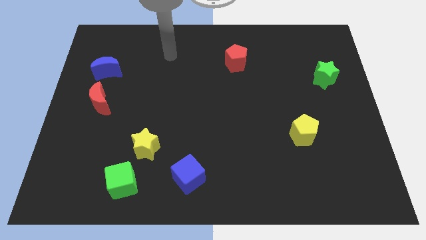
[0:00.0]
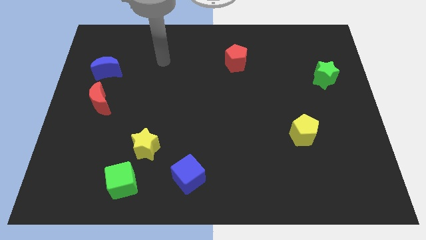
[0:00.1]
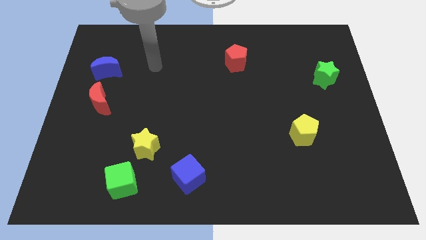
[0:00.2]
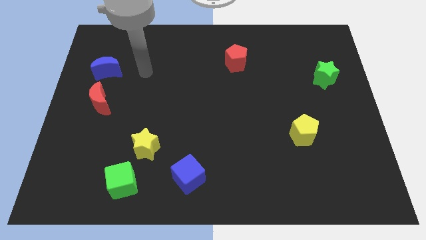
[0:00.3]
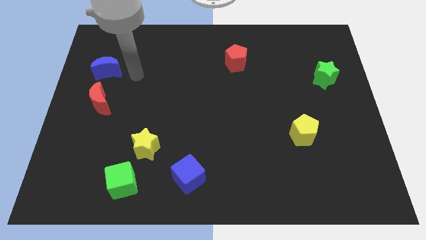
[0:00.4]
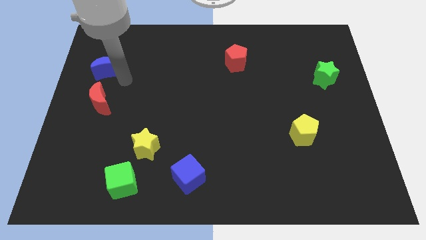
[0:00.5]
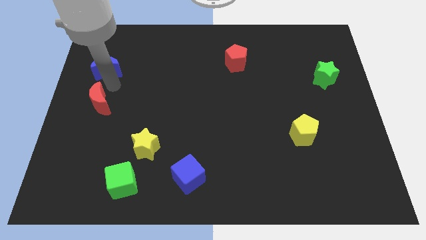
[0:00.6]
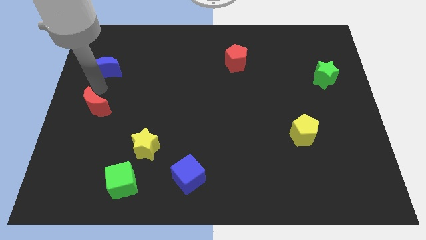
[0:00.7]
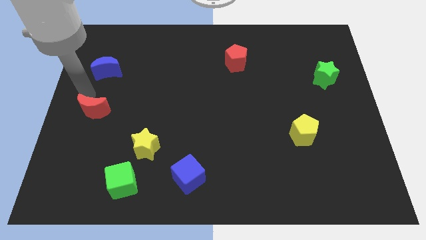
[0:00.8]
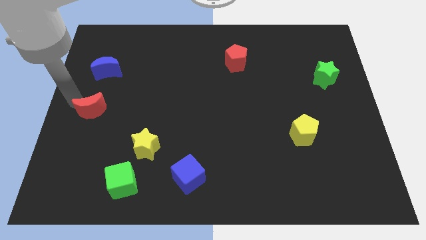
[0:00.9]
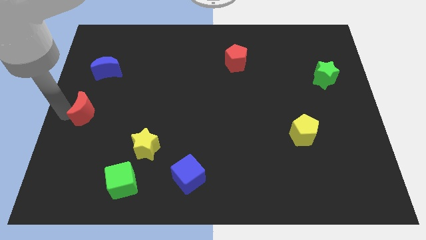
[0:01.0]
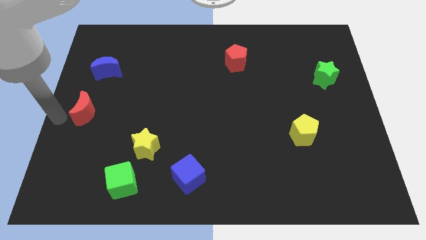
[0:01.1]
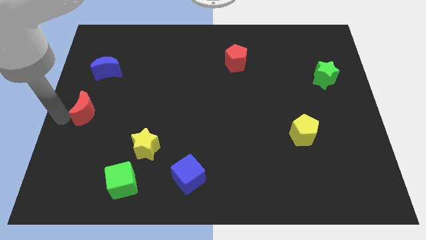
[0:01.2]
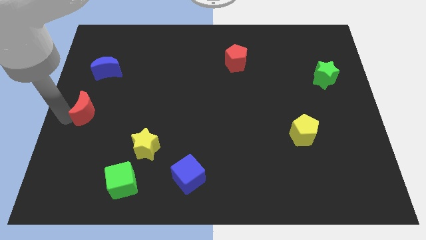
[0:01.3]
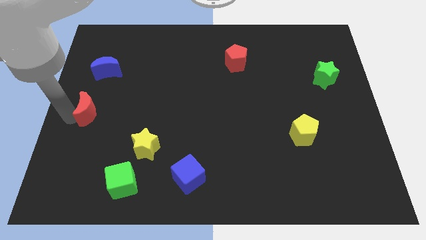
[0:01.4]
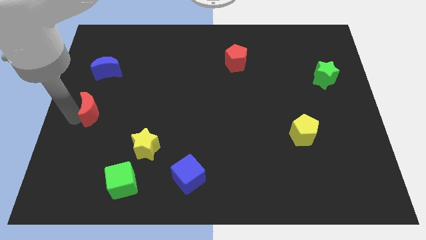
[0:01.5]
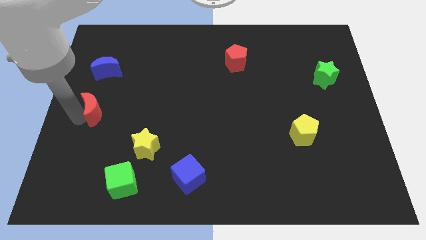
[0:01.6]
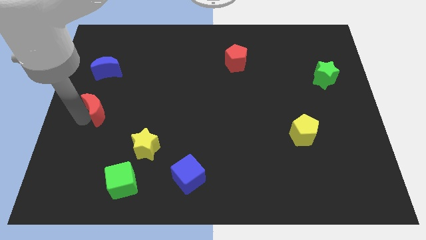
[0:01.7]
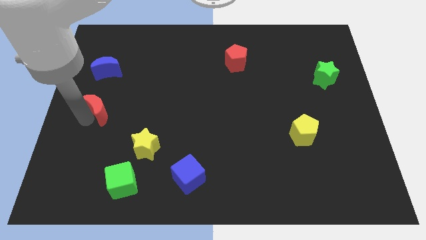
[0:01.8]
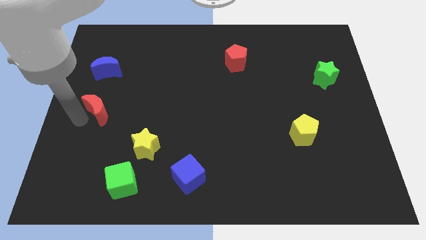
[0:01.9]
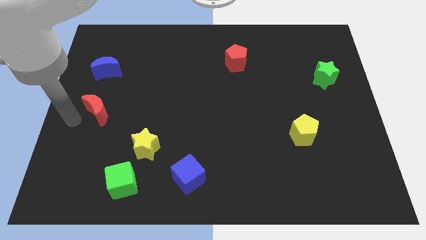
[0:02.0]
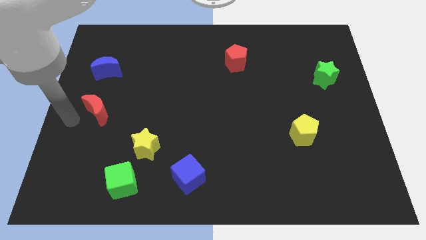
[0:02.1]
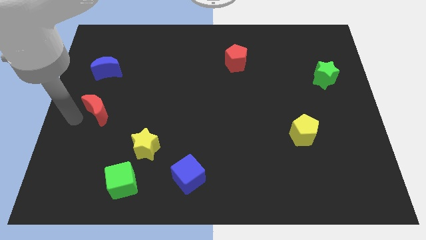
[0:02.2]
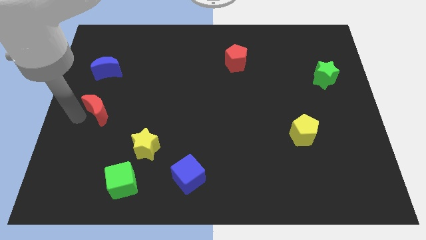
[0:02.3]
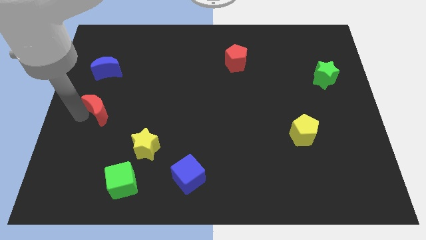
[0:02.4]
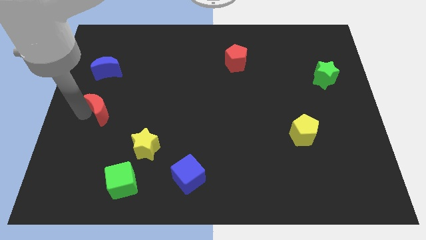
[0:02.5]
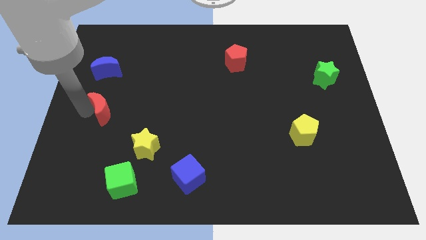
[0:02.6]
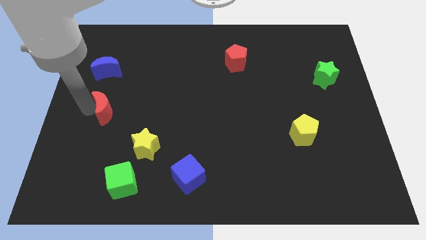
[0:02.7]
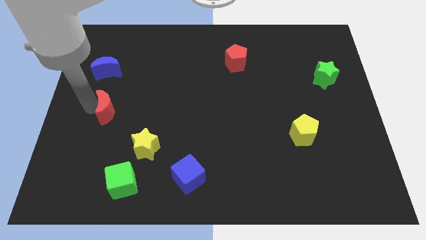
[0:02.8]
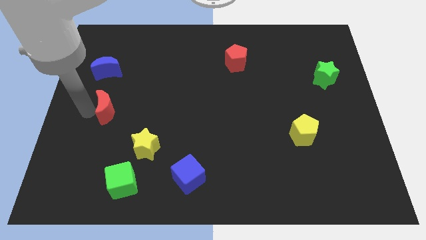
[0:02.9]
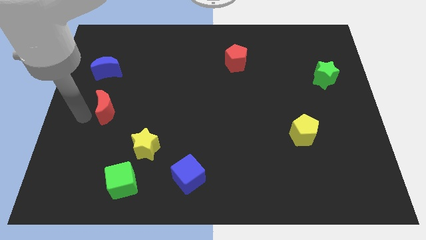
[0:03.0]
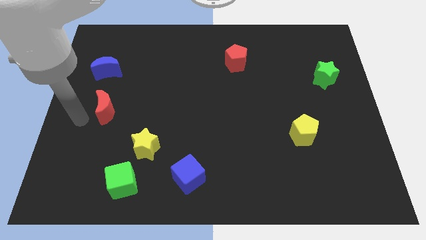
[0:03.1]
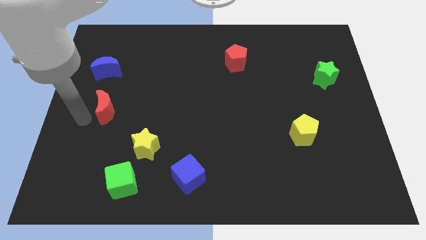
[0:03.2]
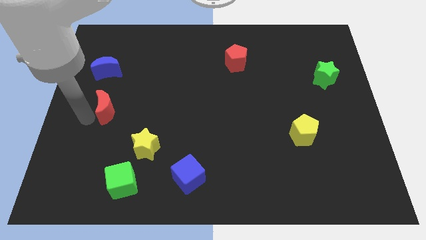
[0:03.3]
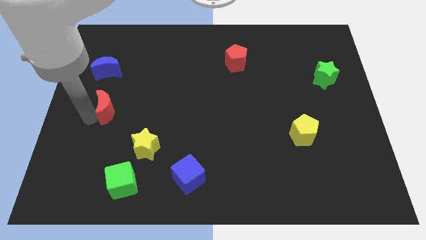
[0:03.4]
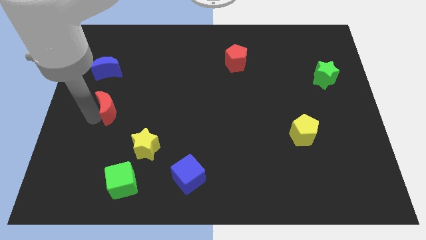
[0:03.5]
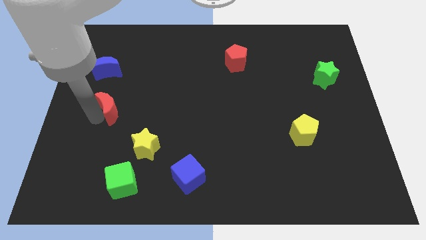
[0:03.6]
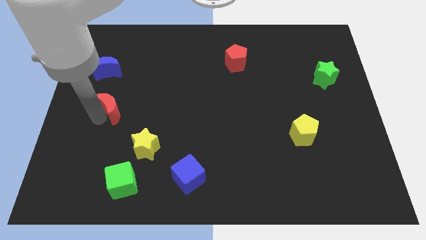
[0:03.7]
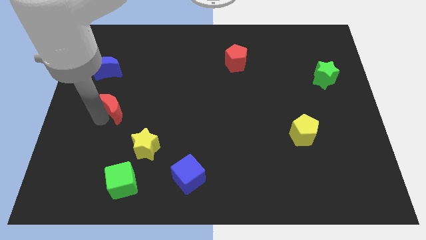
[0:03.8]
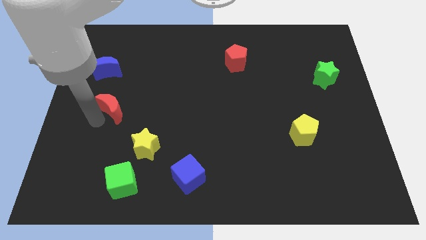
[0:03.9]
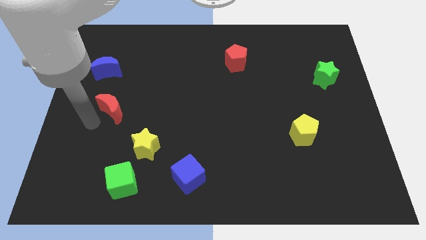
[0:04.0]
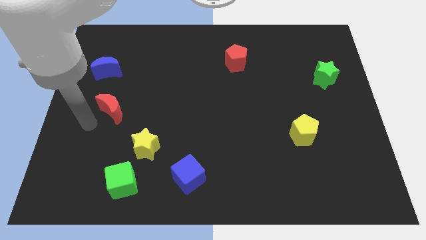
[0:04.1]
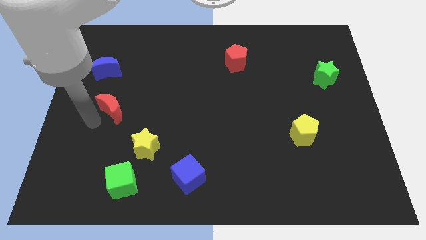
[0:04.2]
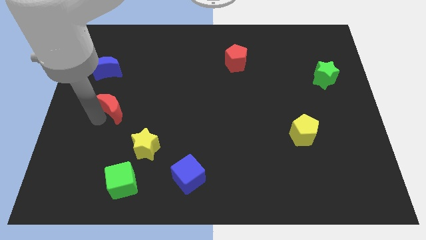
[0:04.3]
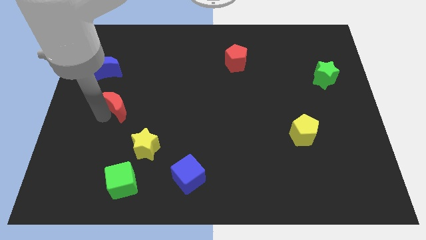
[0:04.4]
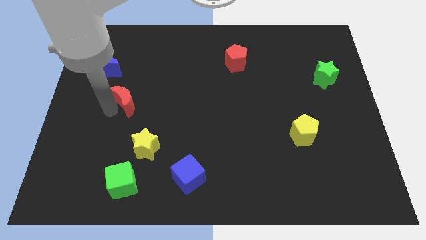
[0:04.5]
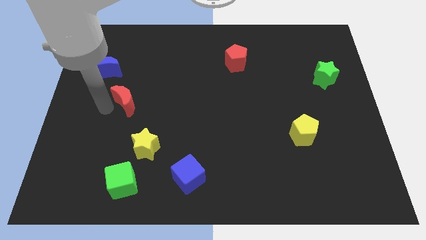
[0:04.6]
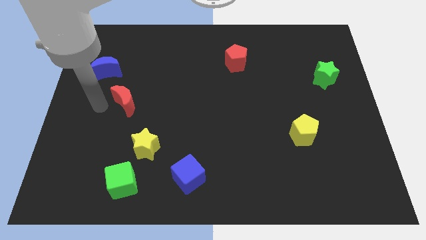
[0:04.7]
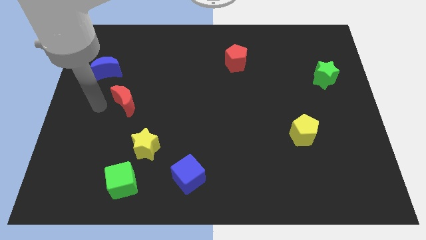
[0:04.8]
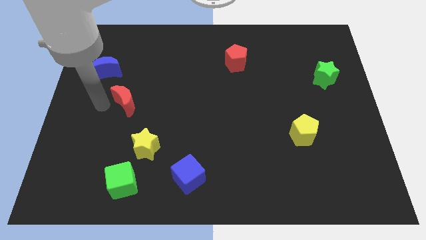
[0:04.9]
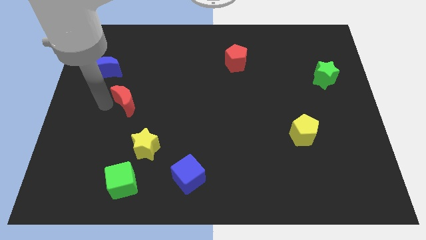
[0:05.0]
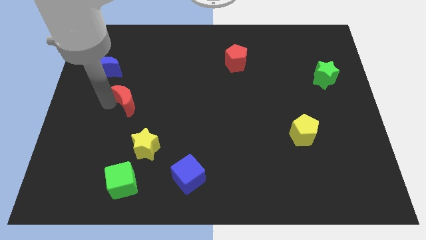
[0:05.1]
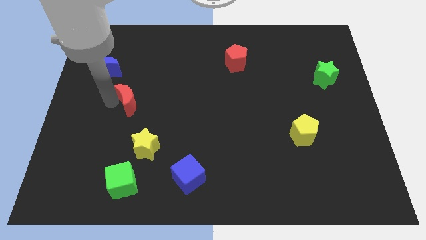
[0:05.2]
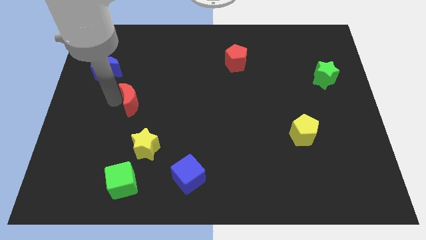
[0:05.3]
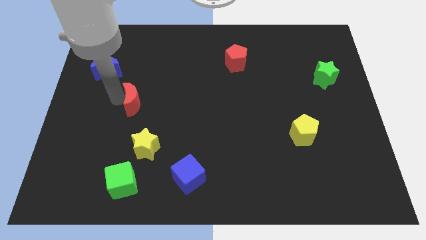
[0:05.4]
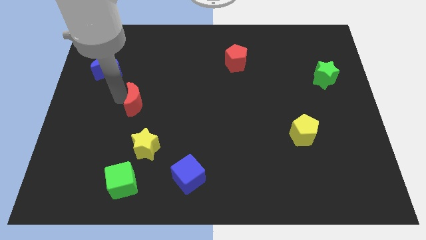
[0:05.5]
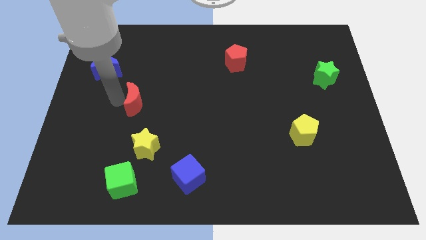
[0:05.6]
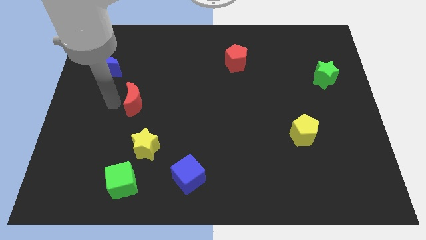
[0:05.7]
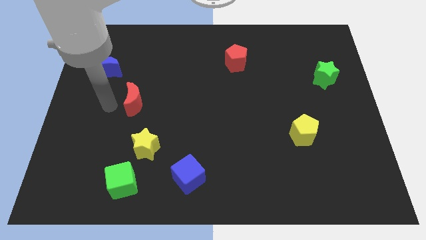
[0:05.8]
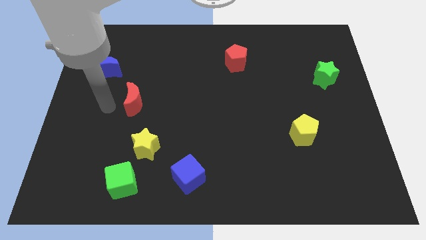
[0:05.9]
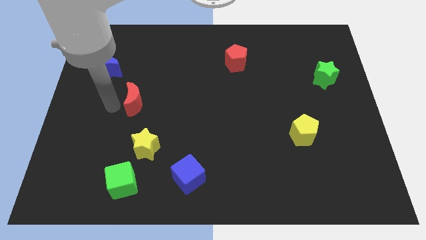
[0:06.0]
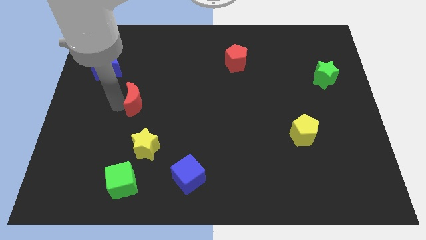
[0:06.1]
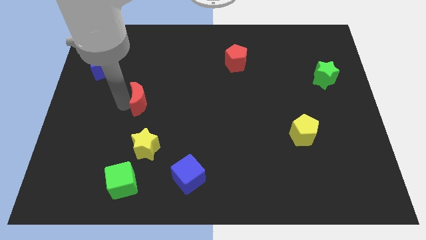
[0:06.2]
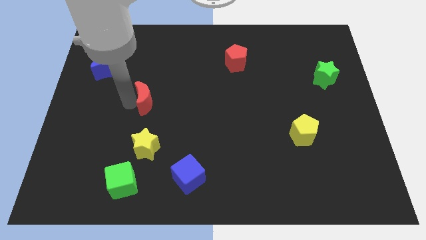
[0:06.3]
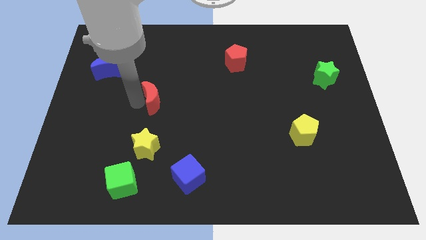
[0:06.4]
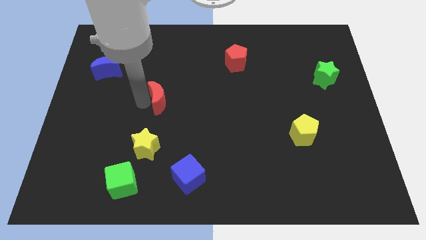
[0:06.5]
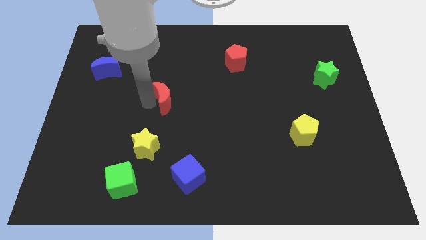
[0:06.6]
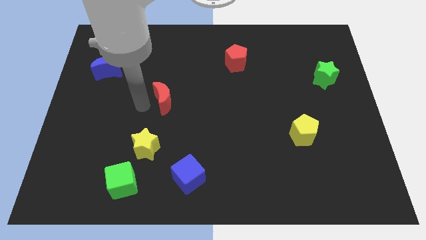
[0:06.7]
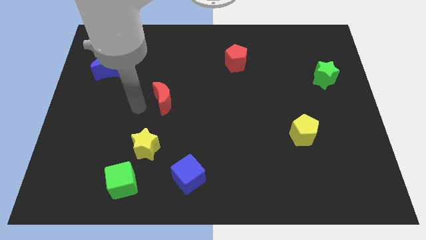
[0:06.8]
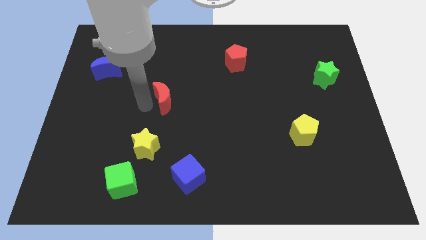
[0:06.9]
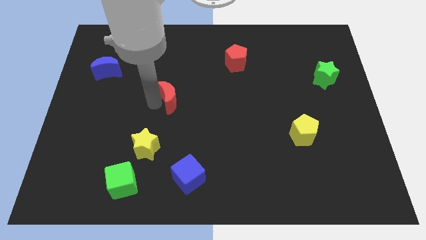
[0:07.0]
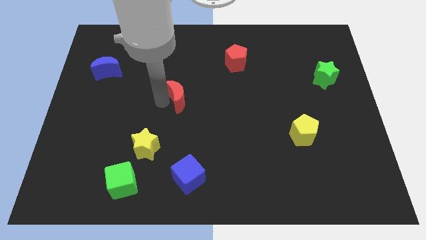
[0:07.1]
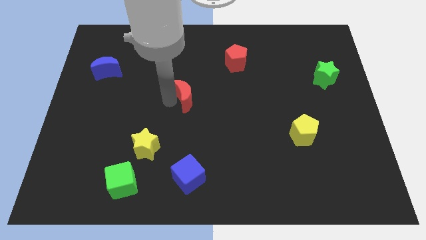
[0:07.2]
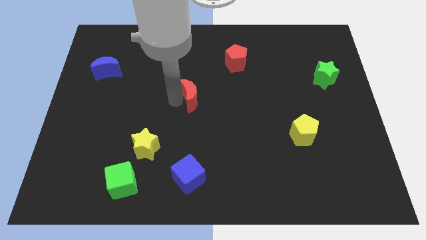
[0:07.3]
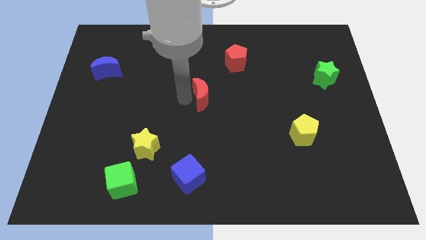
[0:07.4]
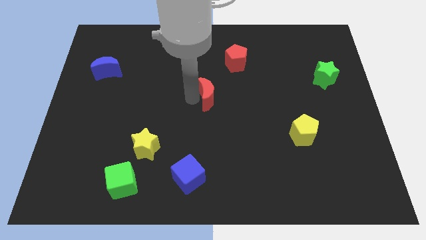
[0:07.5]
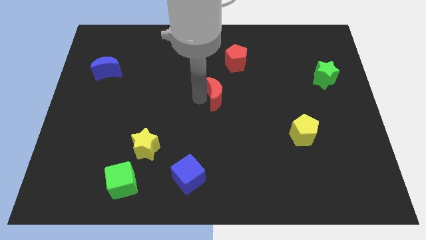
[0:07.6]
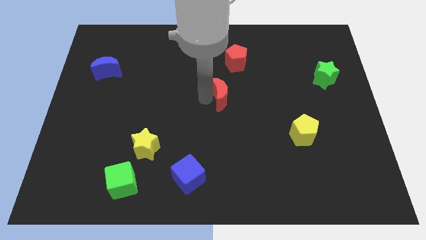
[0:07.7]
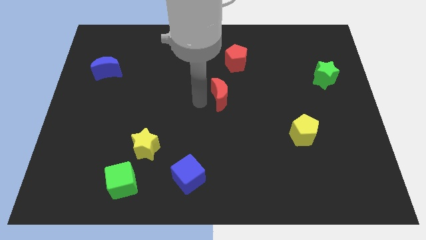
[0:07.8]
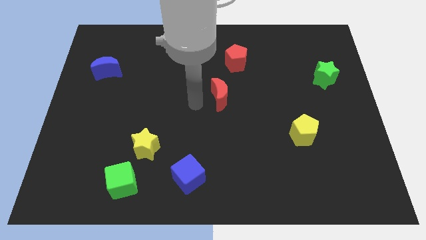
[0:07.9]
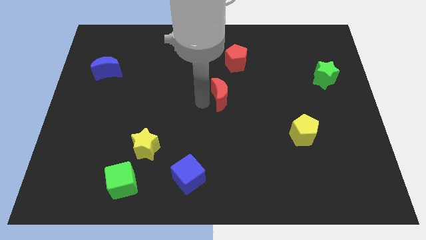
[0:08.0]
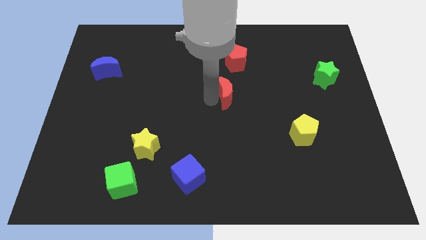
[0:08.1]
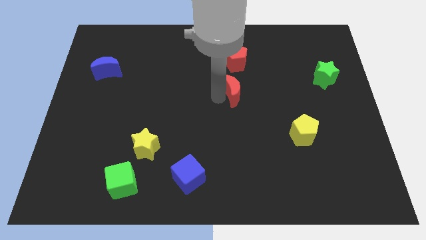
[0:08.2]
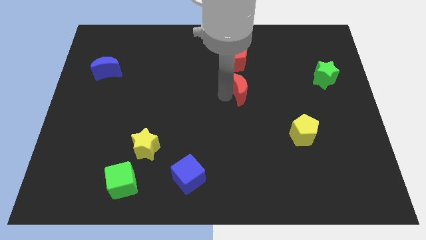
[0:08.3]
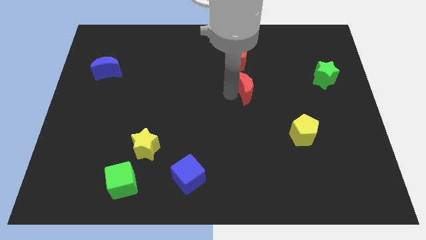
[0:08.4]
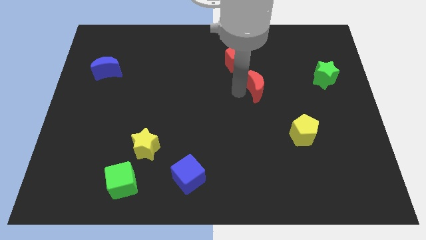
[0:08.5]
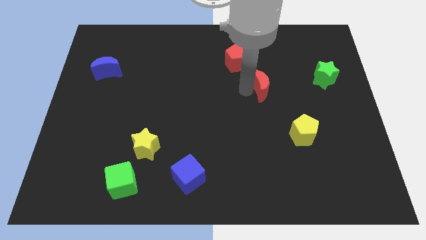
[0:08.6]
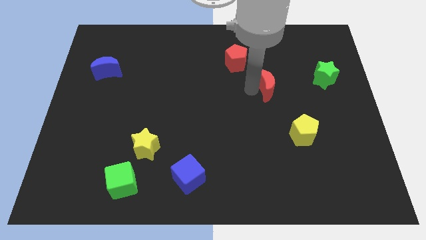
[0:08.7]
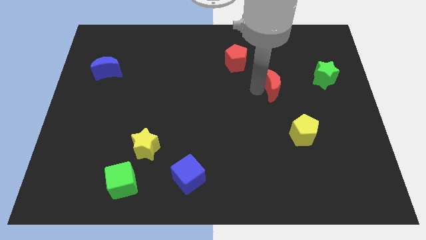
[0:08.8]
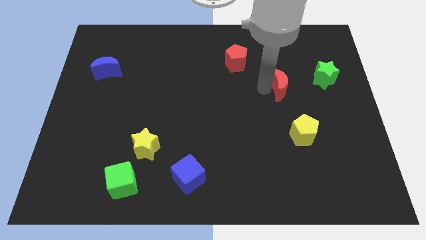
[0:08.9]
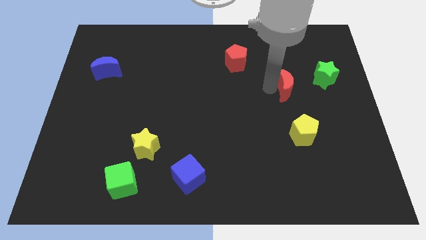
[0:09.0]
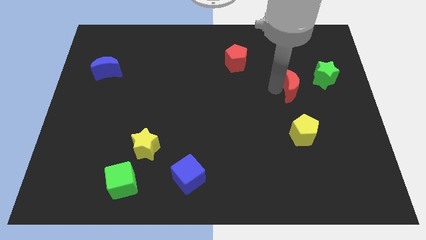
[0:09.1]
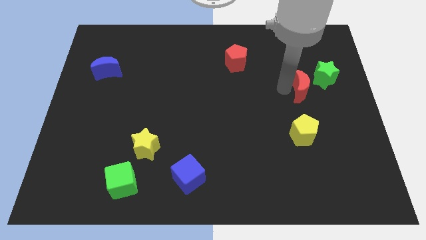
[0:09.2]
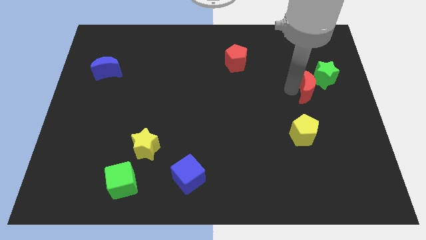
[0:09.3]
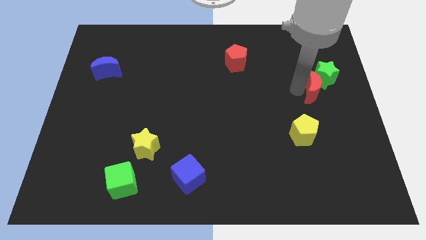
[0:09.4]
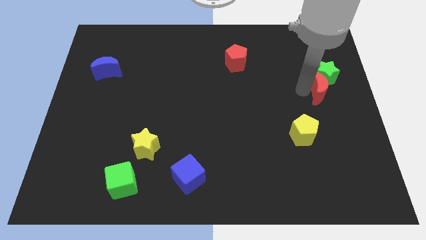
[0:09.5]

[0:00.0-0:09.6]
move the red moon to the right side
